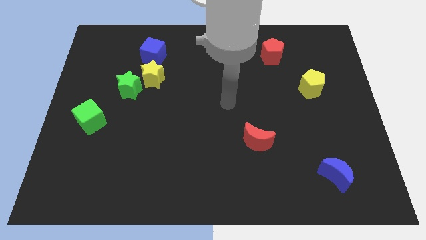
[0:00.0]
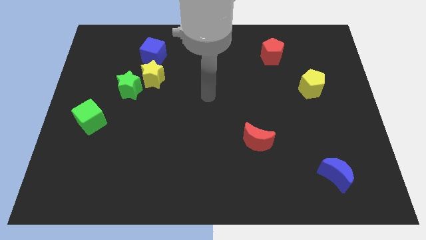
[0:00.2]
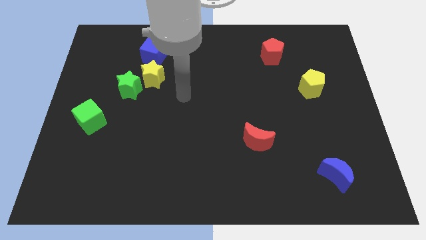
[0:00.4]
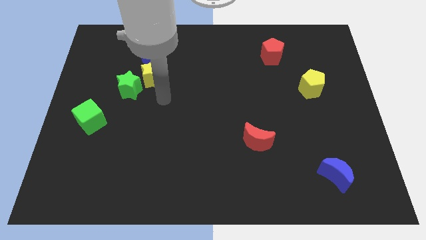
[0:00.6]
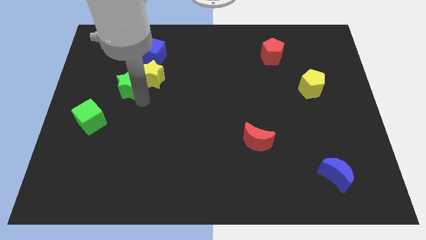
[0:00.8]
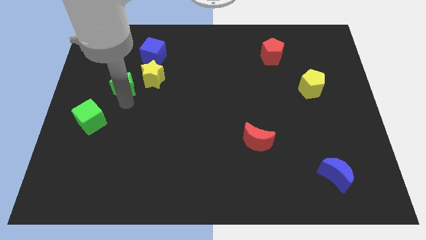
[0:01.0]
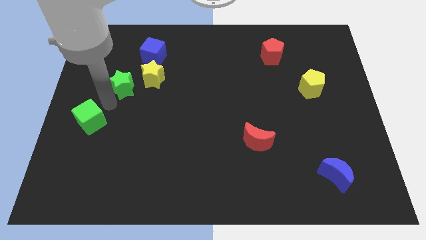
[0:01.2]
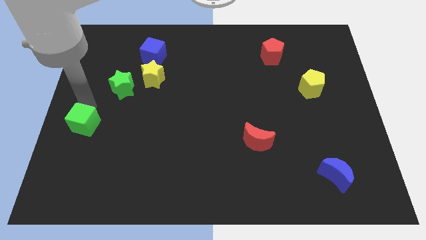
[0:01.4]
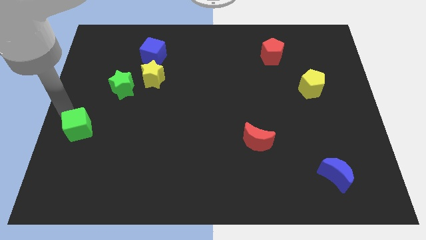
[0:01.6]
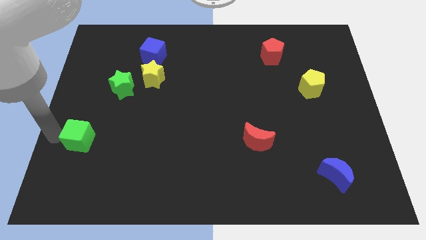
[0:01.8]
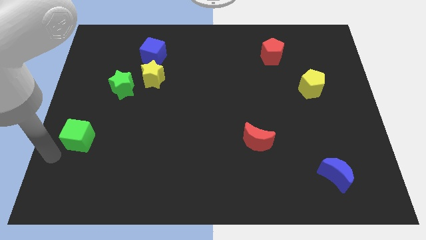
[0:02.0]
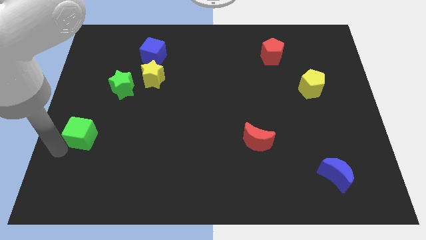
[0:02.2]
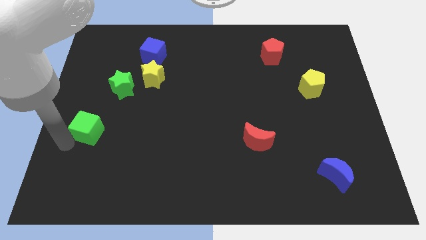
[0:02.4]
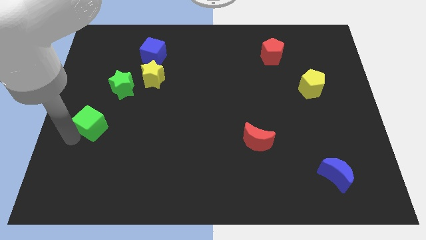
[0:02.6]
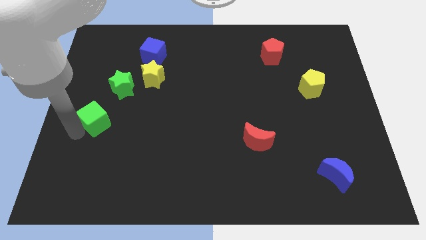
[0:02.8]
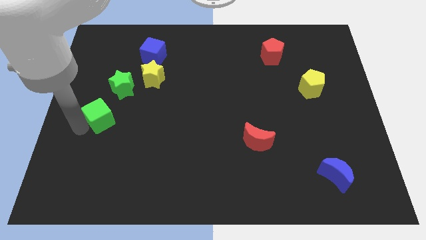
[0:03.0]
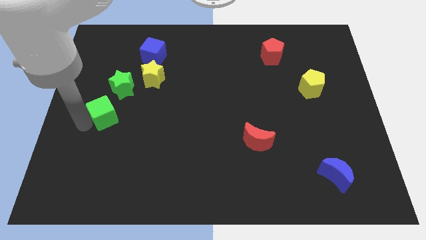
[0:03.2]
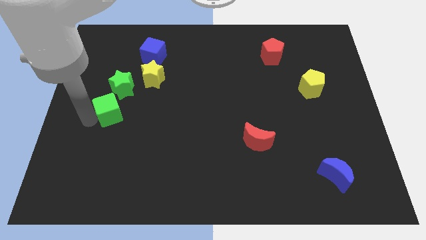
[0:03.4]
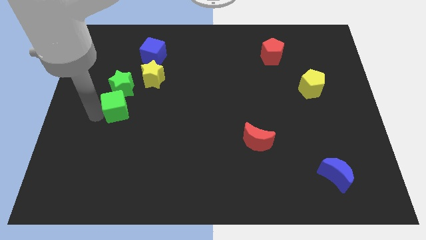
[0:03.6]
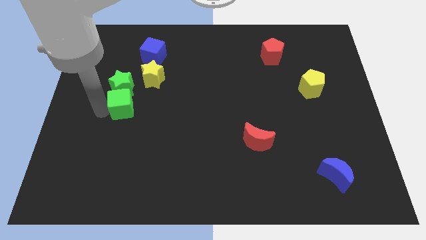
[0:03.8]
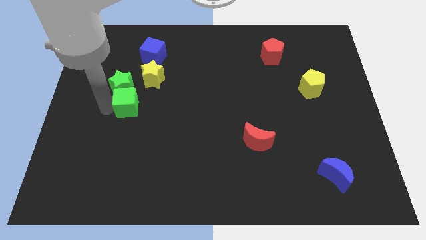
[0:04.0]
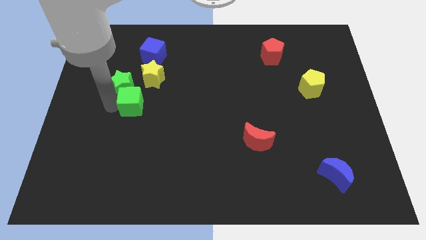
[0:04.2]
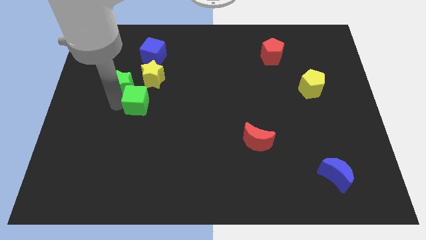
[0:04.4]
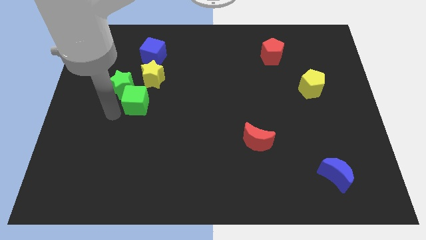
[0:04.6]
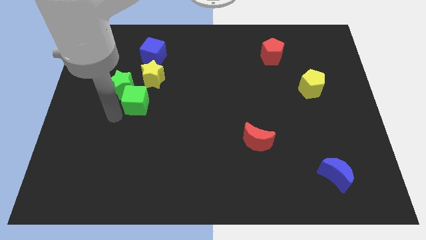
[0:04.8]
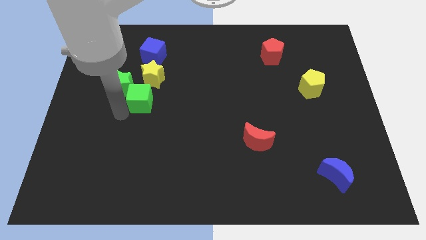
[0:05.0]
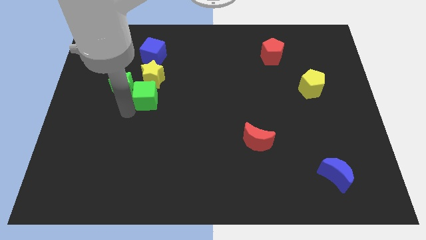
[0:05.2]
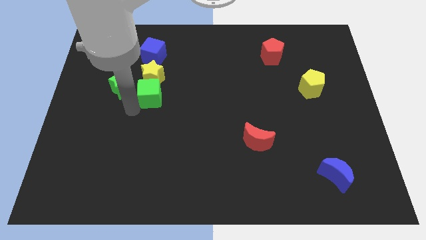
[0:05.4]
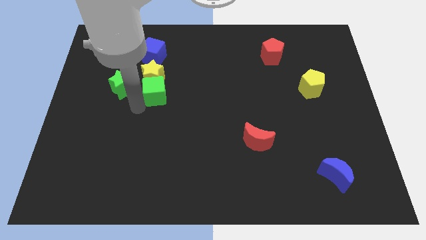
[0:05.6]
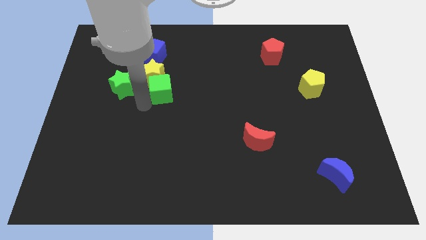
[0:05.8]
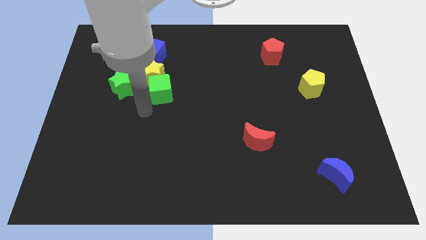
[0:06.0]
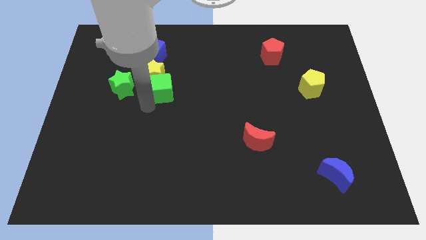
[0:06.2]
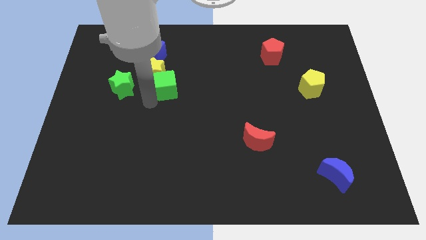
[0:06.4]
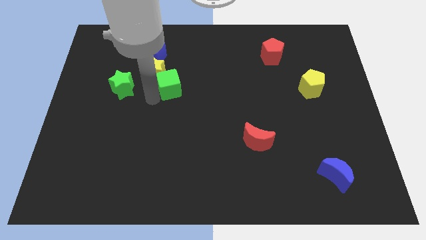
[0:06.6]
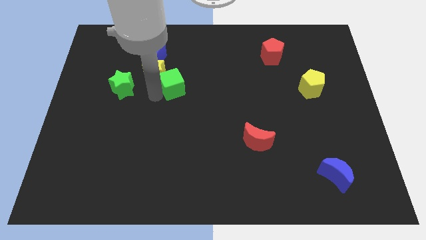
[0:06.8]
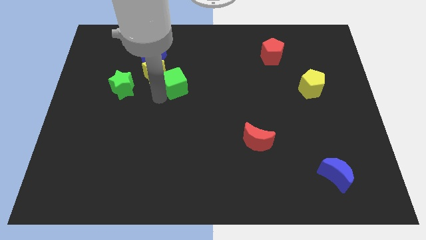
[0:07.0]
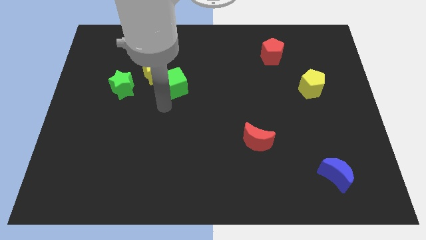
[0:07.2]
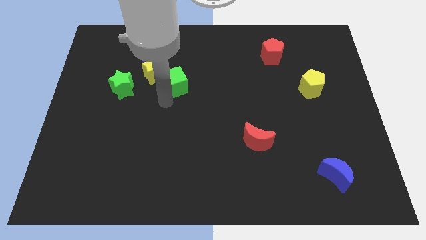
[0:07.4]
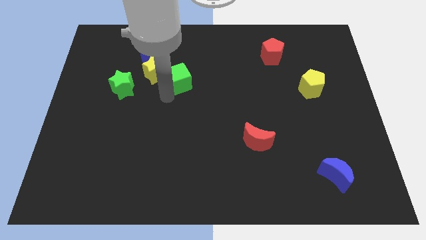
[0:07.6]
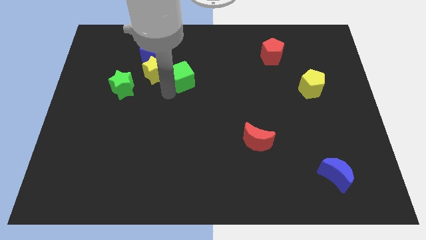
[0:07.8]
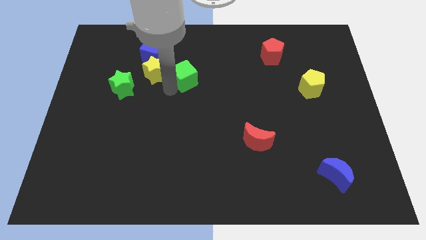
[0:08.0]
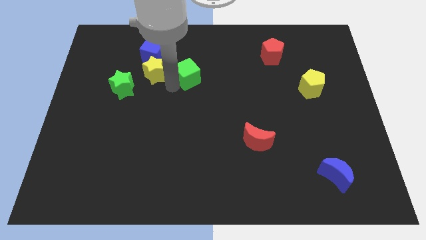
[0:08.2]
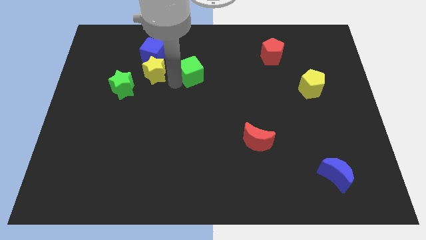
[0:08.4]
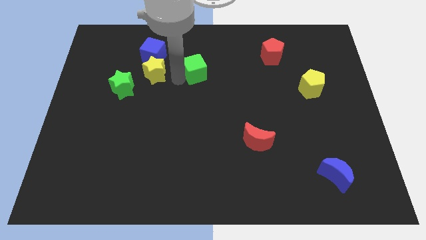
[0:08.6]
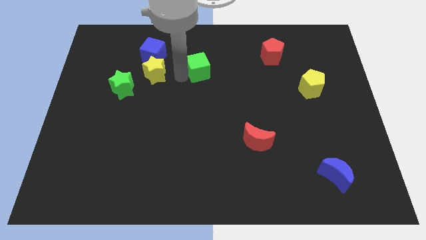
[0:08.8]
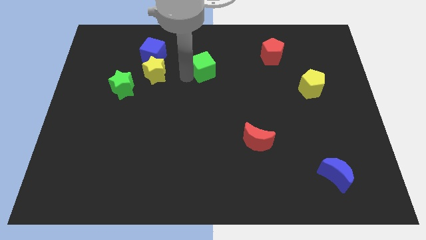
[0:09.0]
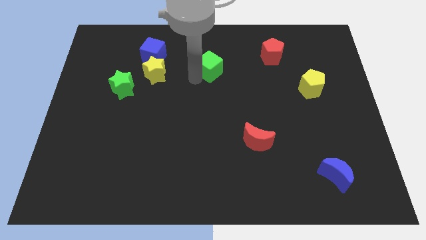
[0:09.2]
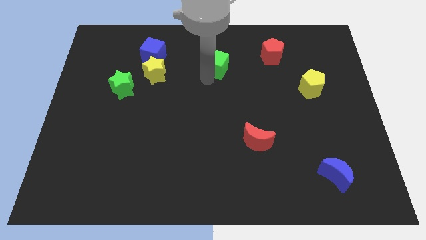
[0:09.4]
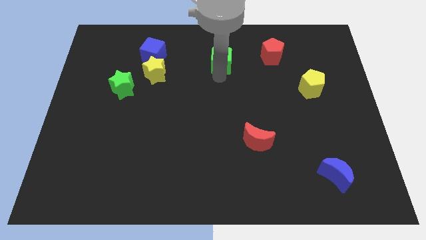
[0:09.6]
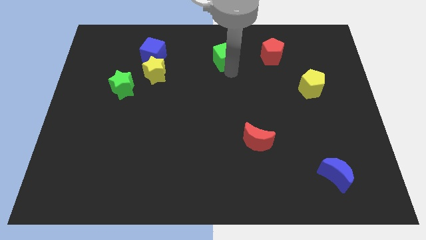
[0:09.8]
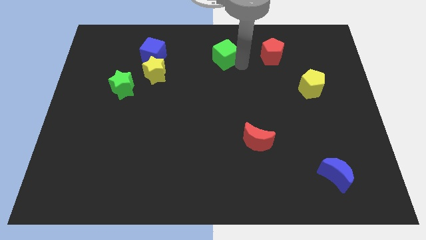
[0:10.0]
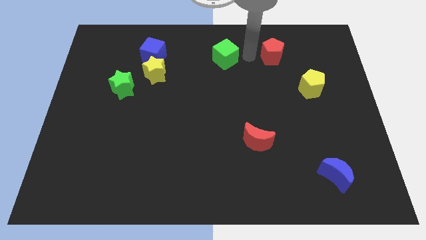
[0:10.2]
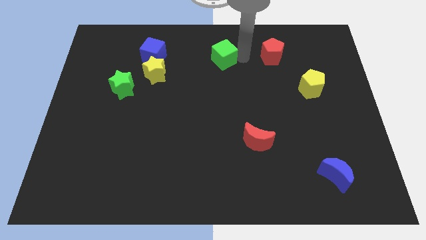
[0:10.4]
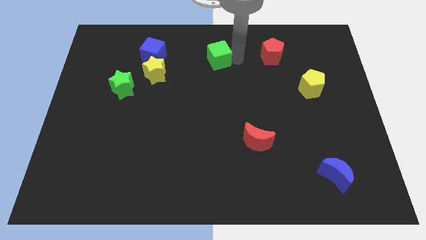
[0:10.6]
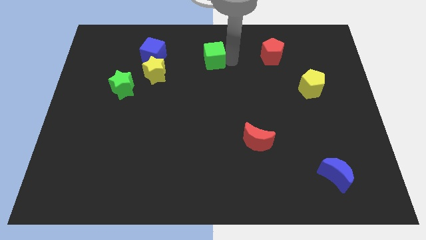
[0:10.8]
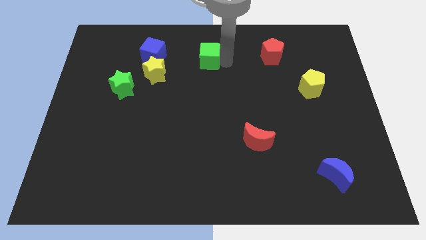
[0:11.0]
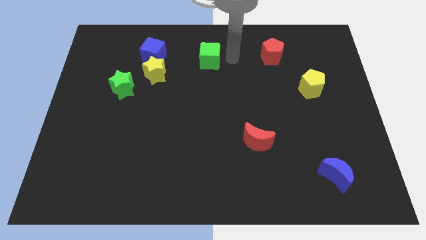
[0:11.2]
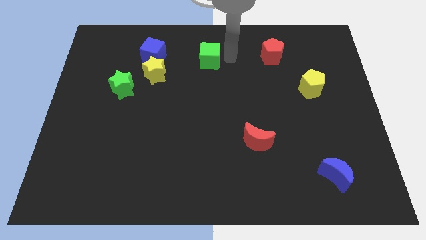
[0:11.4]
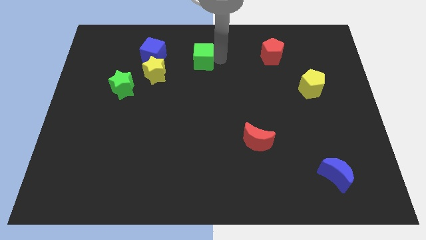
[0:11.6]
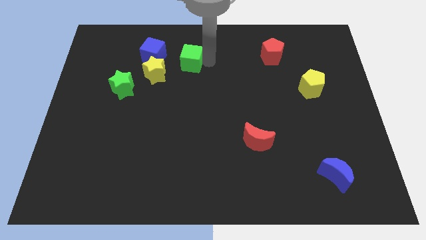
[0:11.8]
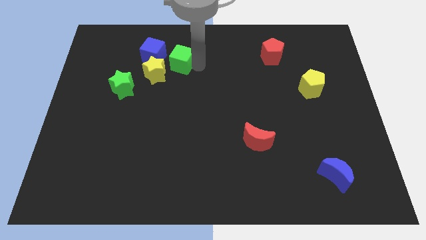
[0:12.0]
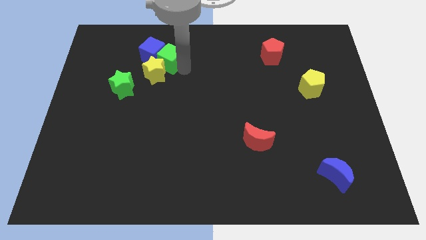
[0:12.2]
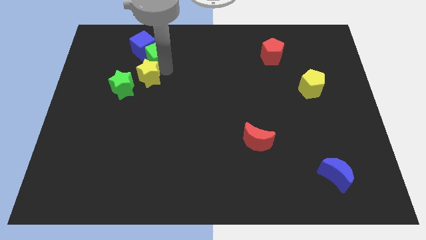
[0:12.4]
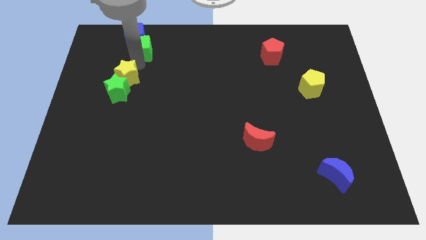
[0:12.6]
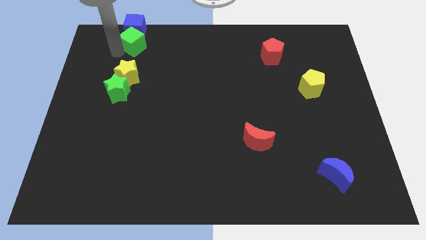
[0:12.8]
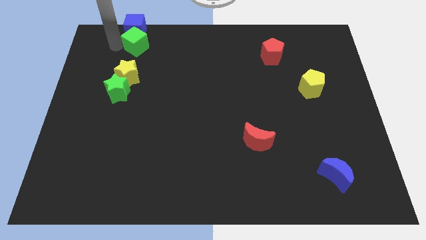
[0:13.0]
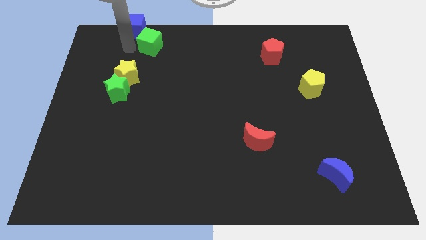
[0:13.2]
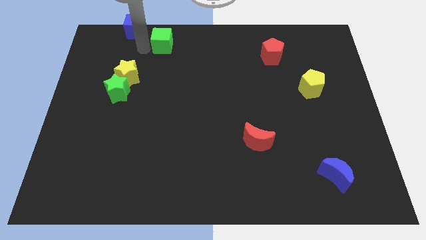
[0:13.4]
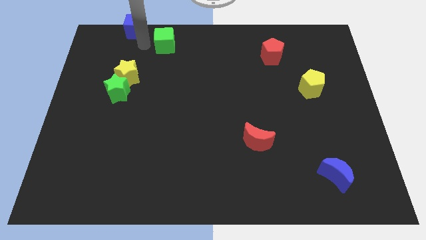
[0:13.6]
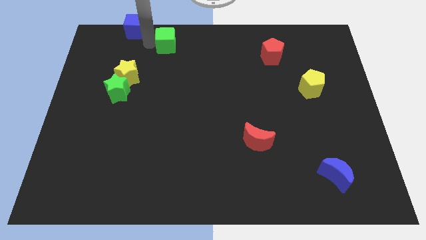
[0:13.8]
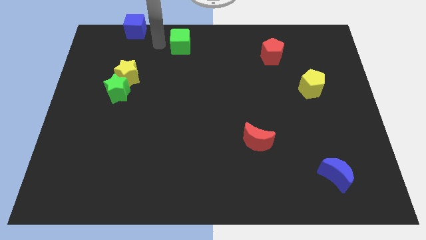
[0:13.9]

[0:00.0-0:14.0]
slide the green cube to the top
